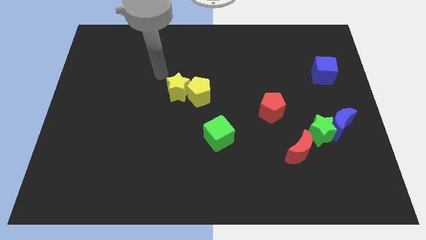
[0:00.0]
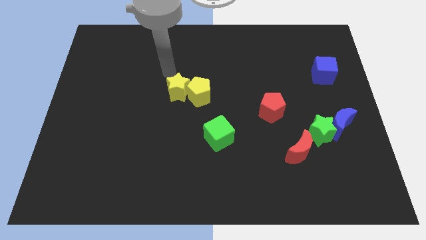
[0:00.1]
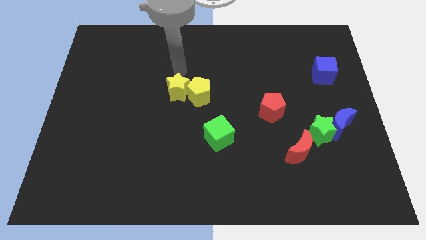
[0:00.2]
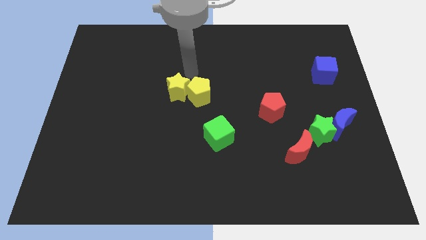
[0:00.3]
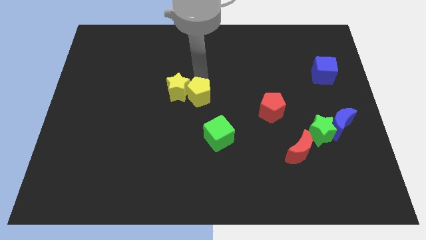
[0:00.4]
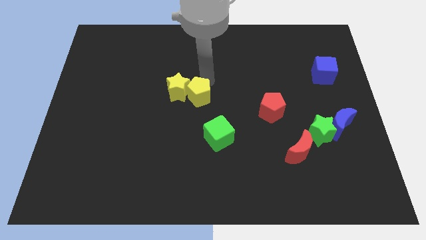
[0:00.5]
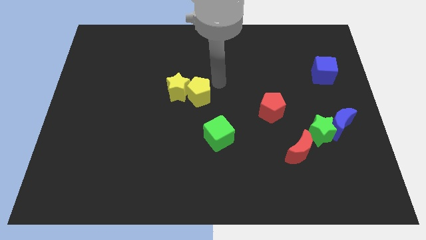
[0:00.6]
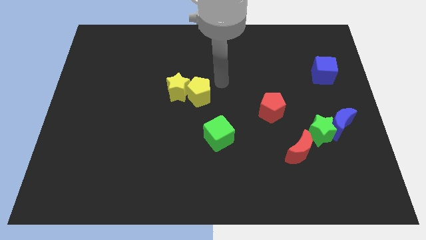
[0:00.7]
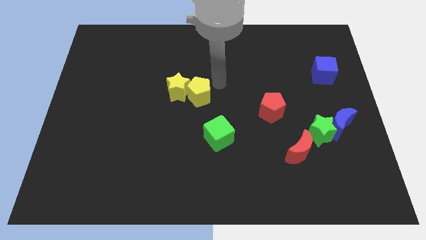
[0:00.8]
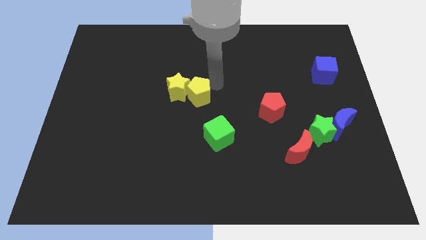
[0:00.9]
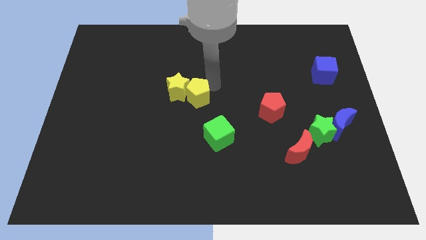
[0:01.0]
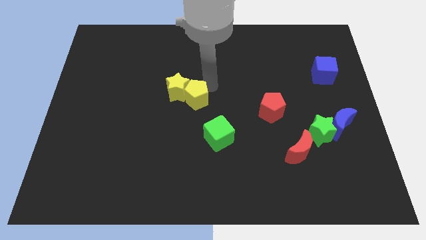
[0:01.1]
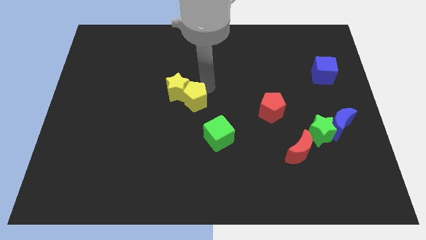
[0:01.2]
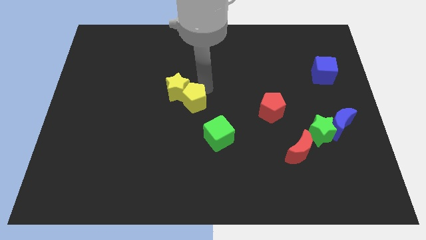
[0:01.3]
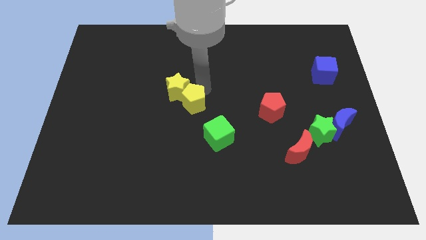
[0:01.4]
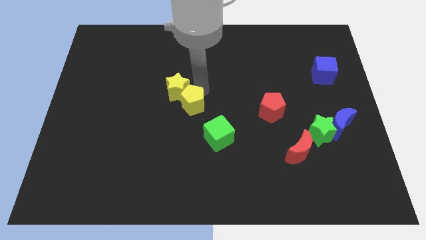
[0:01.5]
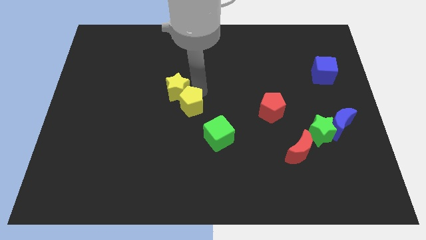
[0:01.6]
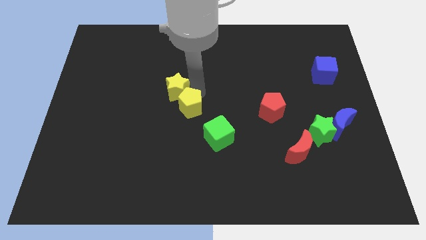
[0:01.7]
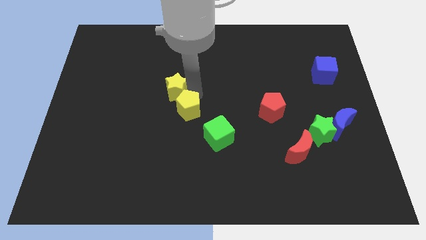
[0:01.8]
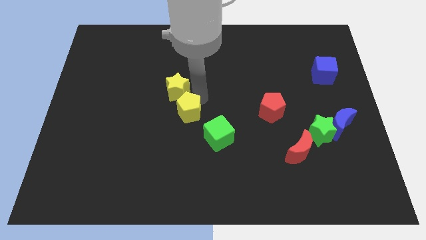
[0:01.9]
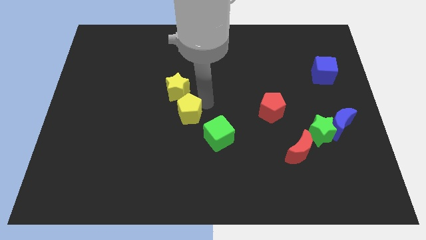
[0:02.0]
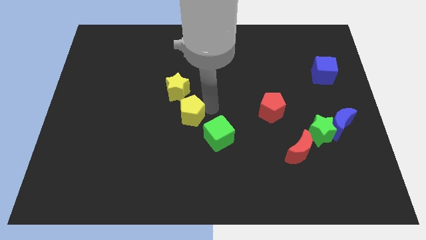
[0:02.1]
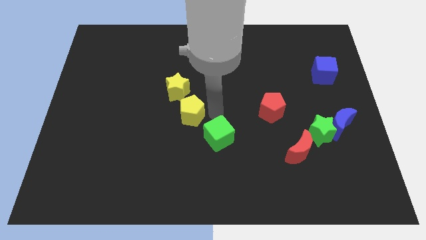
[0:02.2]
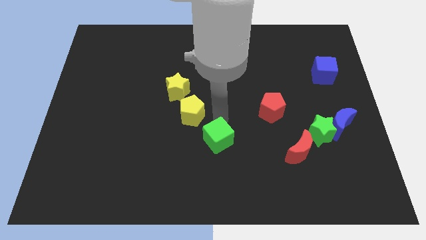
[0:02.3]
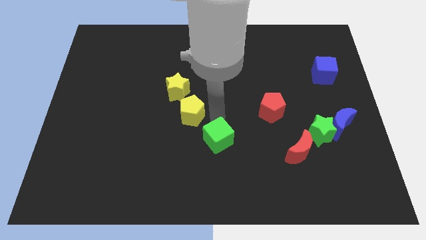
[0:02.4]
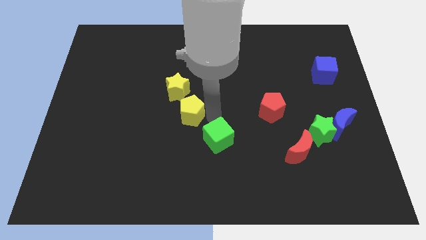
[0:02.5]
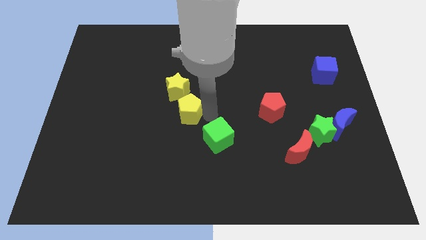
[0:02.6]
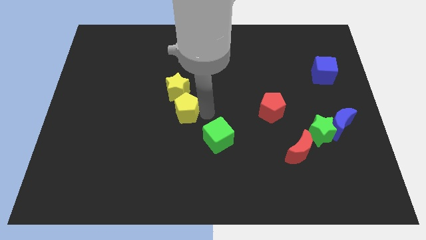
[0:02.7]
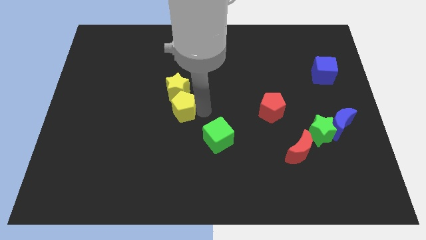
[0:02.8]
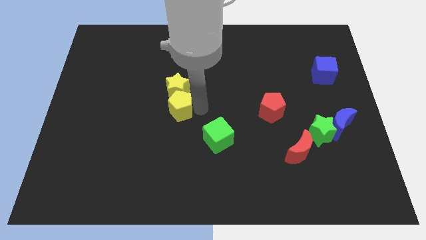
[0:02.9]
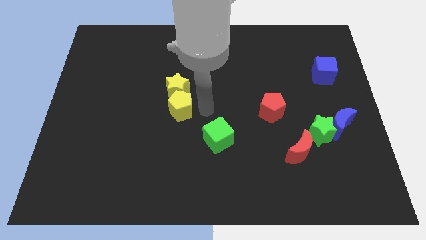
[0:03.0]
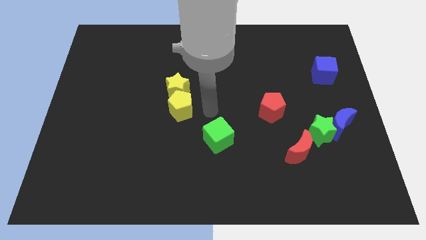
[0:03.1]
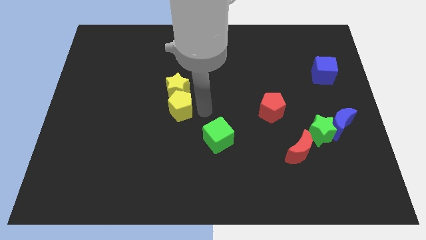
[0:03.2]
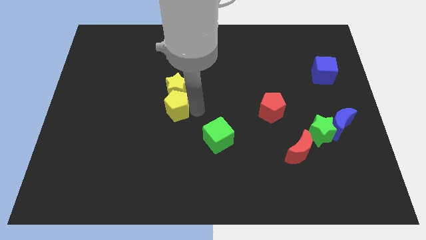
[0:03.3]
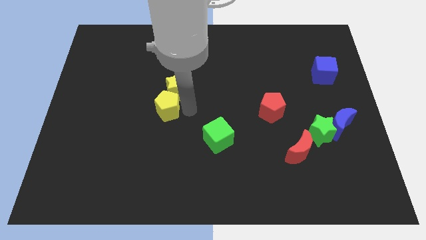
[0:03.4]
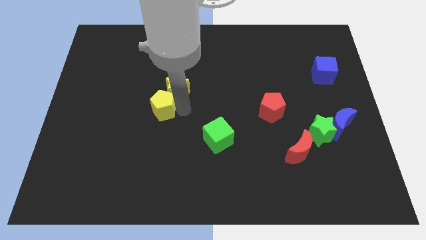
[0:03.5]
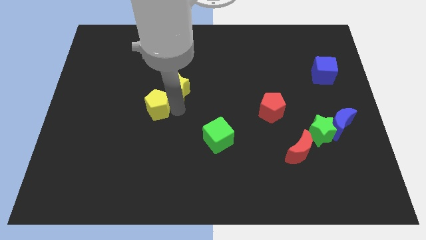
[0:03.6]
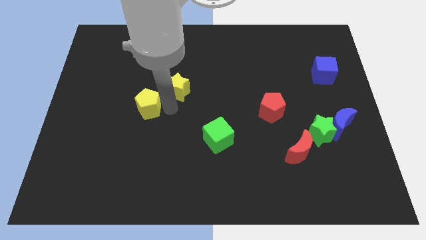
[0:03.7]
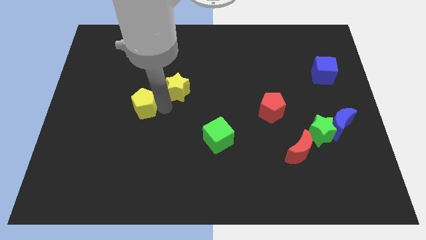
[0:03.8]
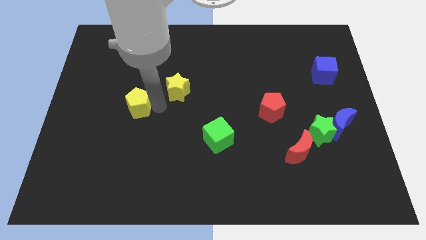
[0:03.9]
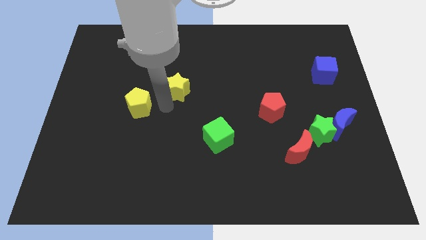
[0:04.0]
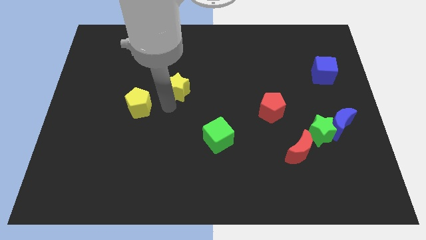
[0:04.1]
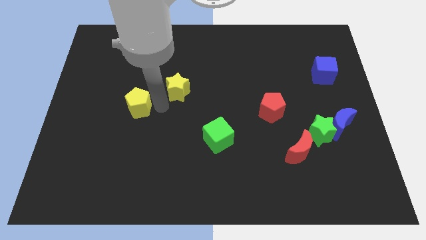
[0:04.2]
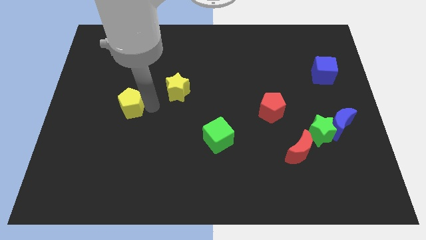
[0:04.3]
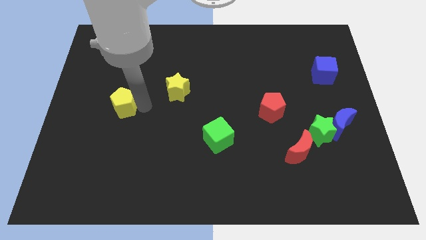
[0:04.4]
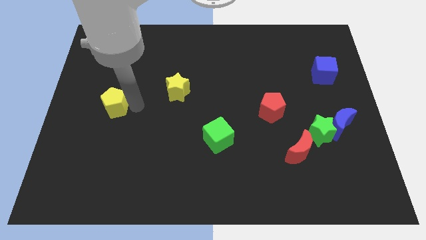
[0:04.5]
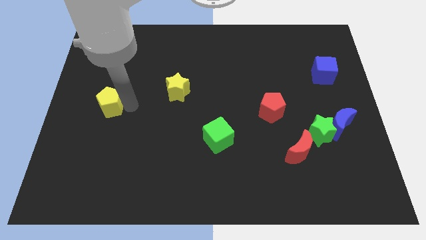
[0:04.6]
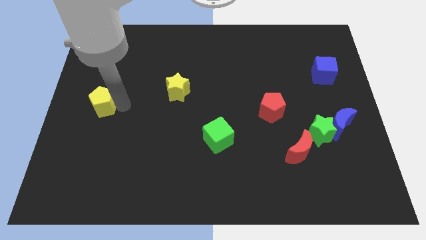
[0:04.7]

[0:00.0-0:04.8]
slide the yellow pentagon to the left side

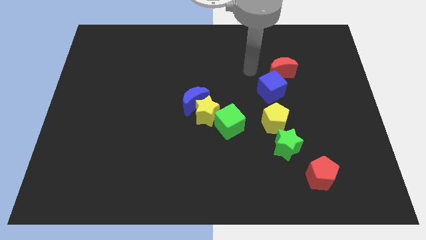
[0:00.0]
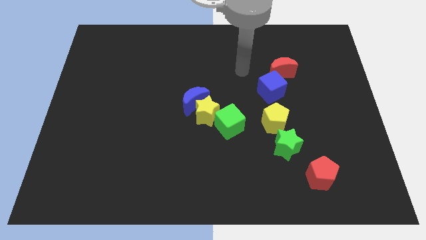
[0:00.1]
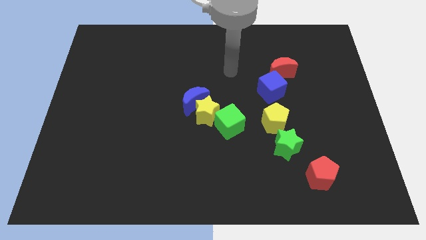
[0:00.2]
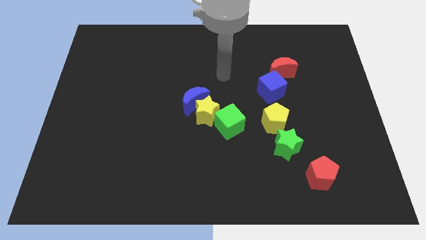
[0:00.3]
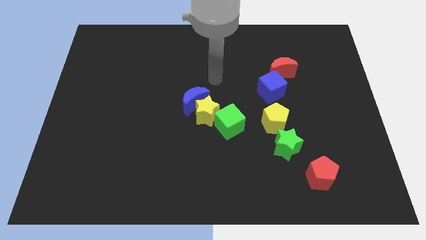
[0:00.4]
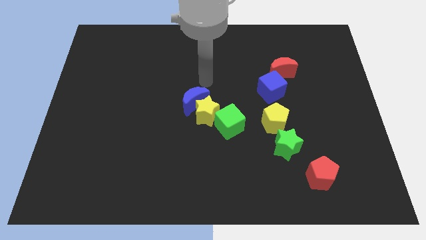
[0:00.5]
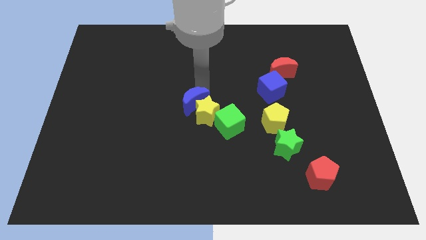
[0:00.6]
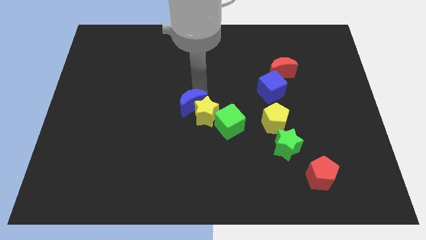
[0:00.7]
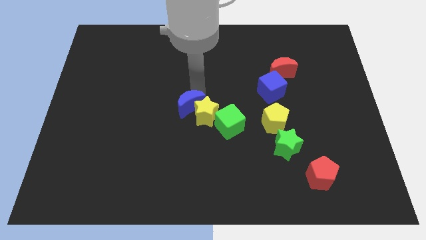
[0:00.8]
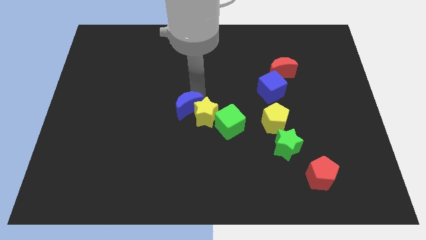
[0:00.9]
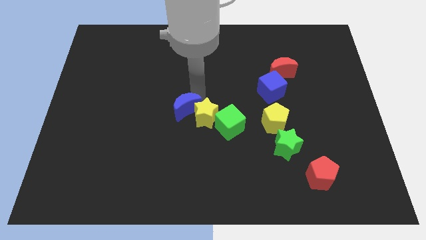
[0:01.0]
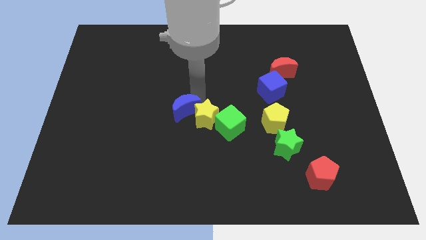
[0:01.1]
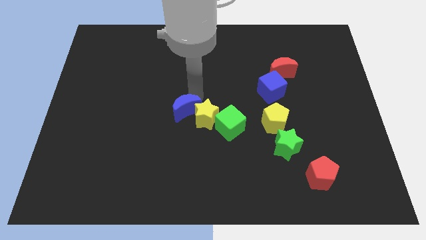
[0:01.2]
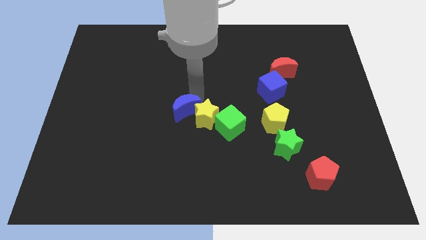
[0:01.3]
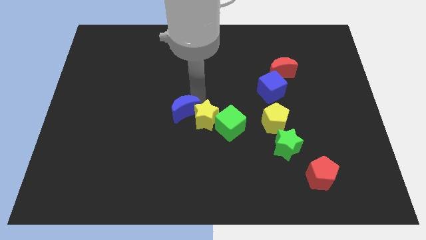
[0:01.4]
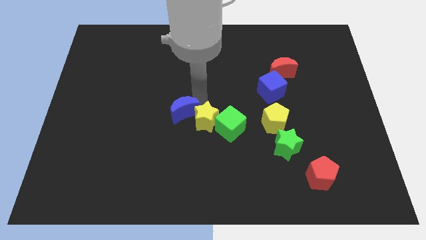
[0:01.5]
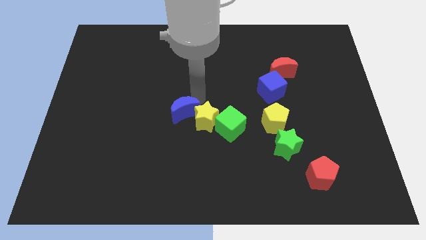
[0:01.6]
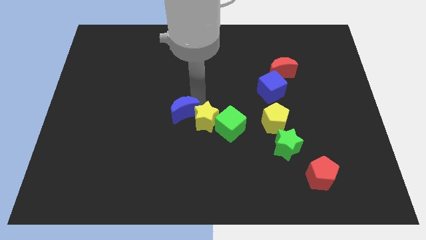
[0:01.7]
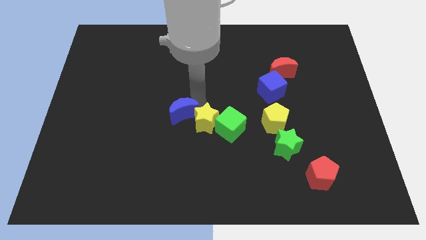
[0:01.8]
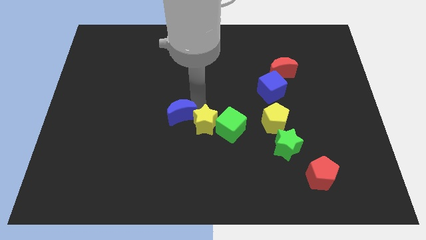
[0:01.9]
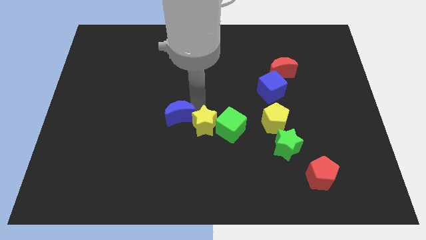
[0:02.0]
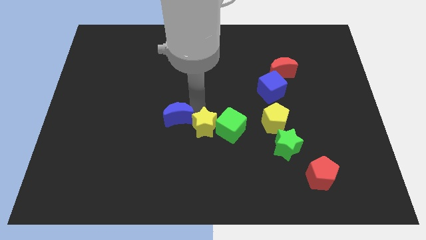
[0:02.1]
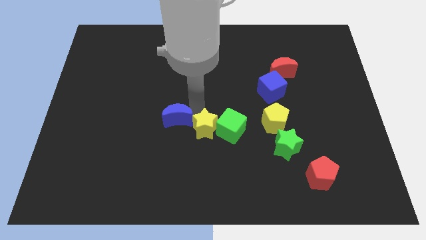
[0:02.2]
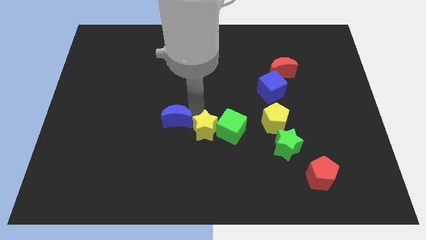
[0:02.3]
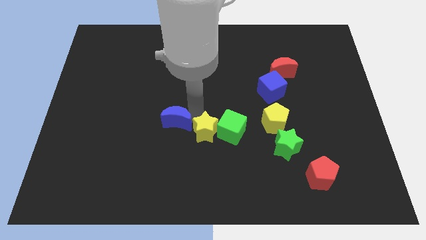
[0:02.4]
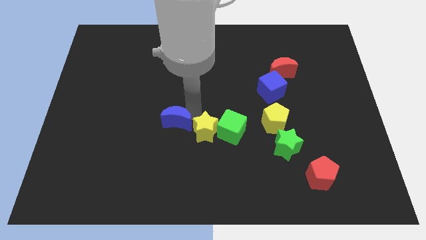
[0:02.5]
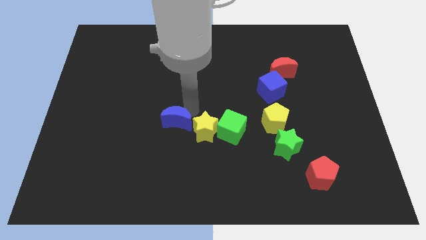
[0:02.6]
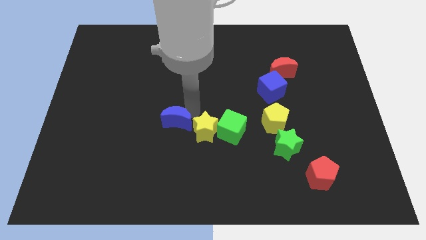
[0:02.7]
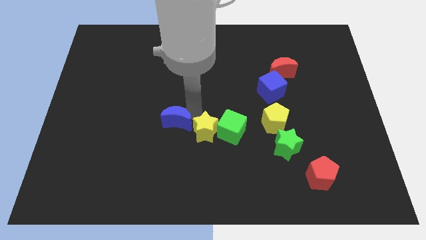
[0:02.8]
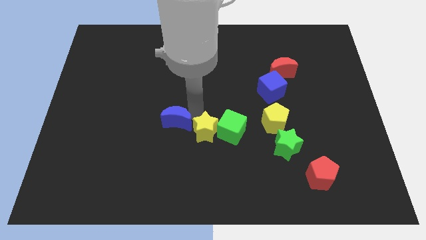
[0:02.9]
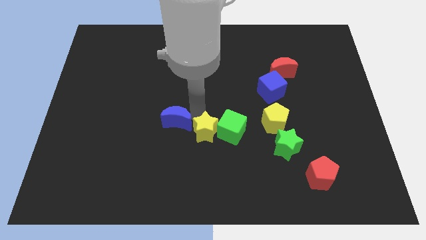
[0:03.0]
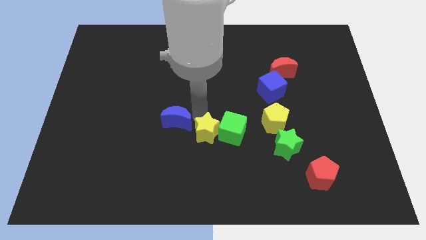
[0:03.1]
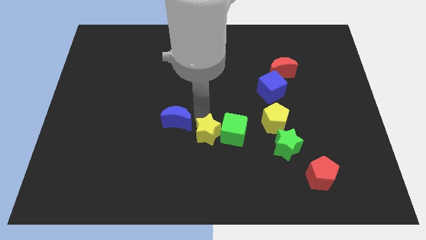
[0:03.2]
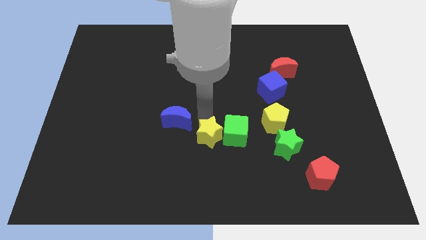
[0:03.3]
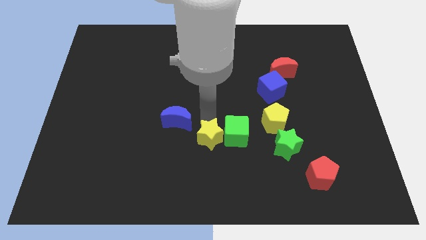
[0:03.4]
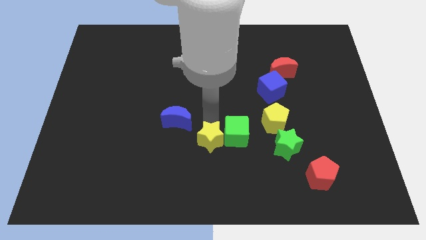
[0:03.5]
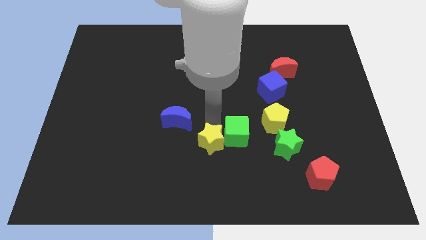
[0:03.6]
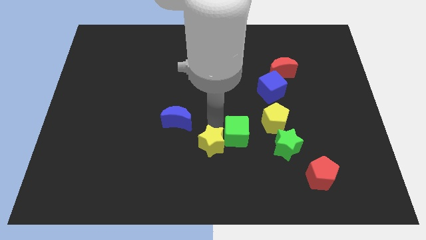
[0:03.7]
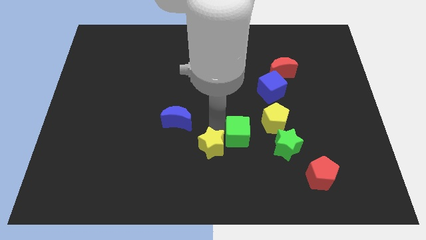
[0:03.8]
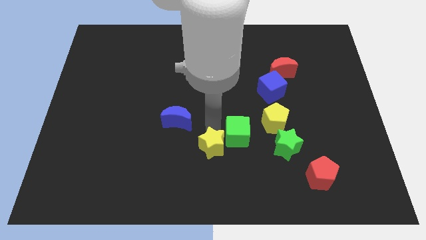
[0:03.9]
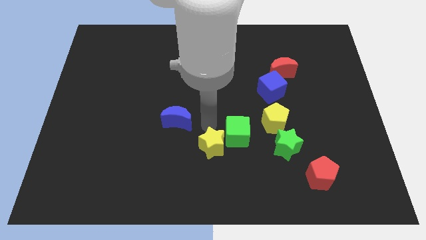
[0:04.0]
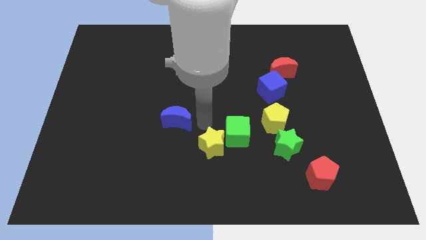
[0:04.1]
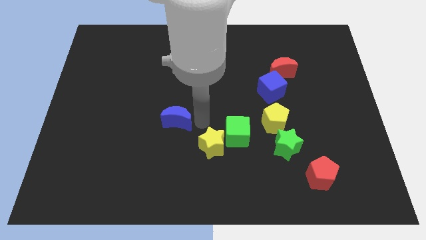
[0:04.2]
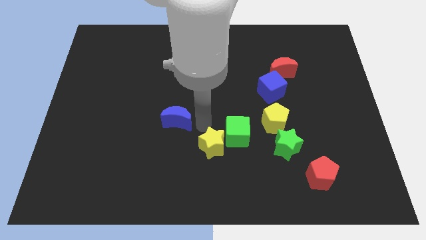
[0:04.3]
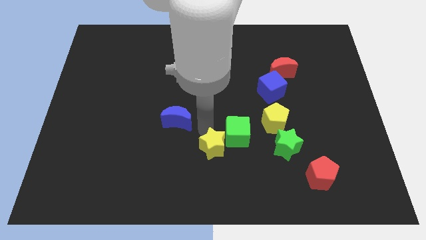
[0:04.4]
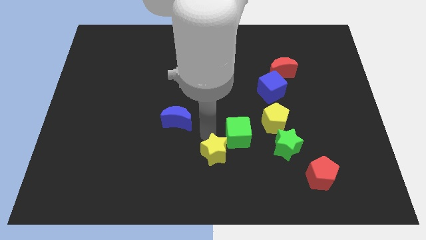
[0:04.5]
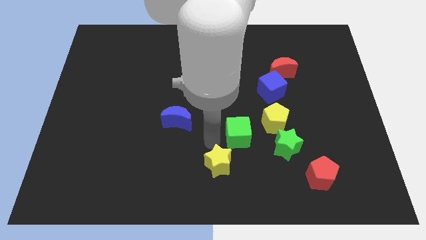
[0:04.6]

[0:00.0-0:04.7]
move the yellow star to the bottom side
